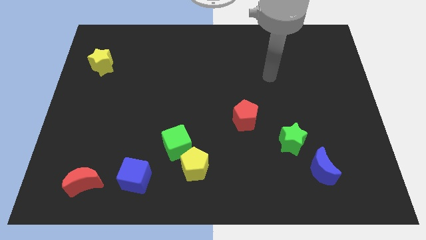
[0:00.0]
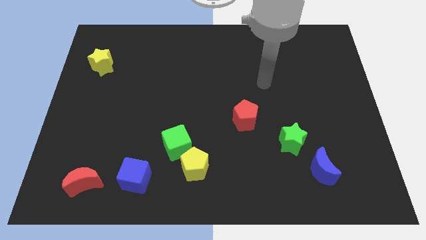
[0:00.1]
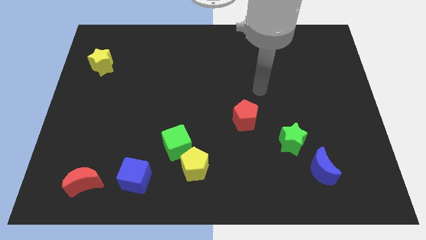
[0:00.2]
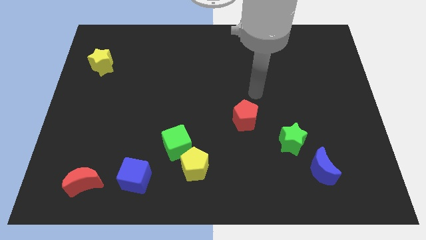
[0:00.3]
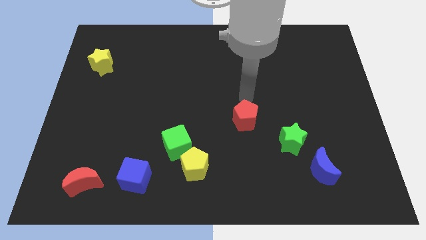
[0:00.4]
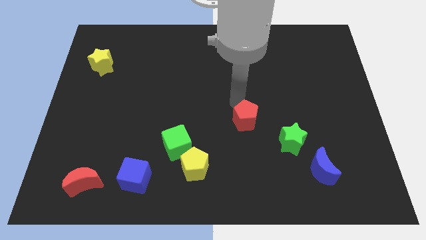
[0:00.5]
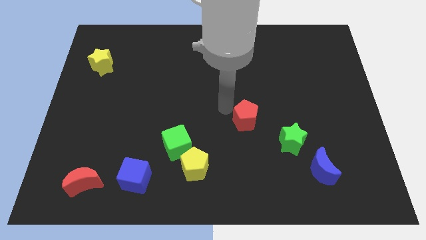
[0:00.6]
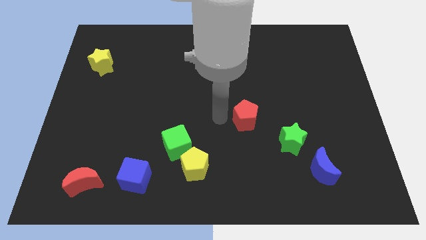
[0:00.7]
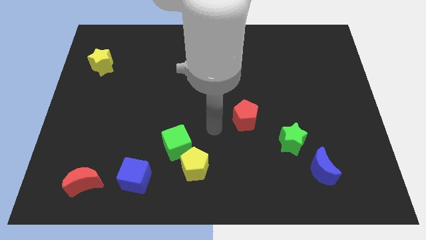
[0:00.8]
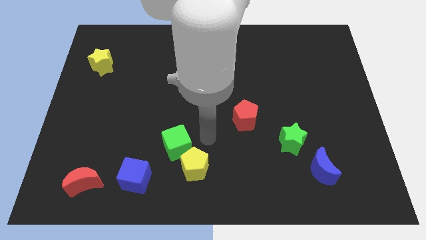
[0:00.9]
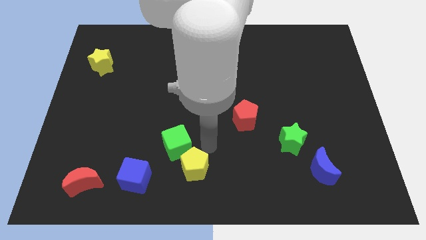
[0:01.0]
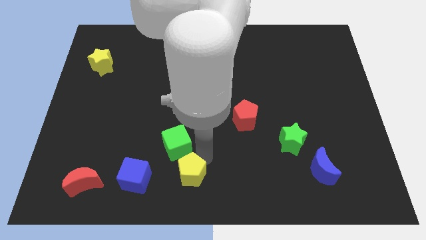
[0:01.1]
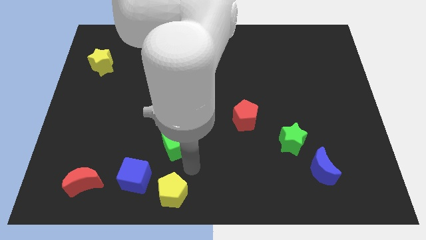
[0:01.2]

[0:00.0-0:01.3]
pull the green cube apart from the yellow pentagon

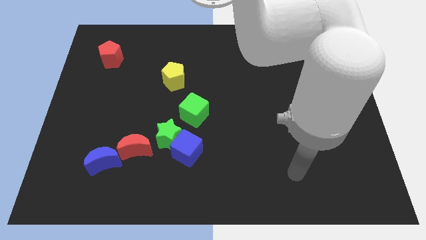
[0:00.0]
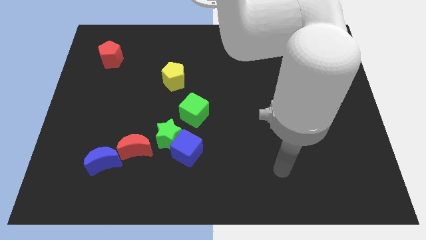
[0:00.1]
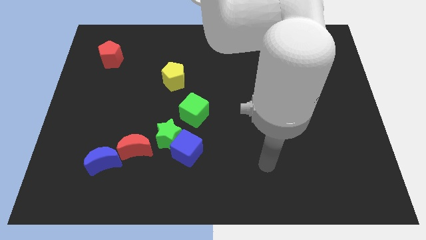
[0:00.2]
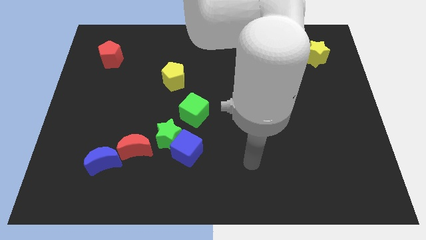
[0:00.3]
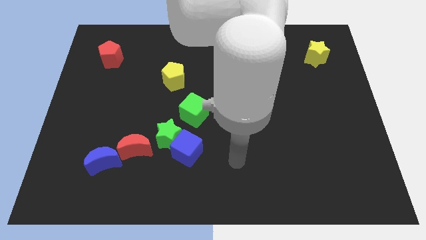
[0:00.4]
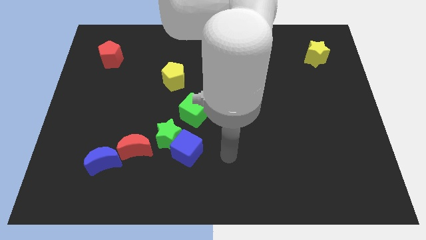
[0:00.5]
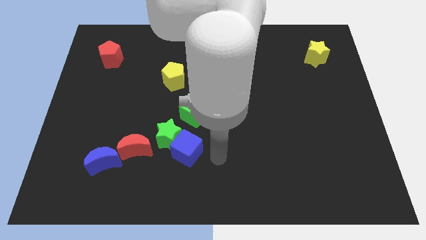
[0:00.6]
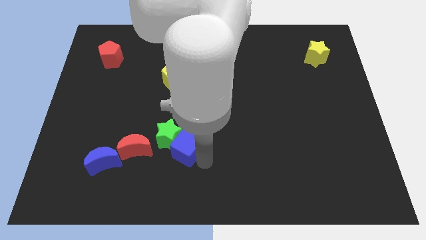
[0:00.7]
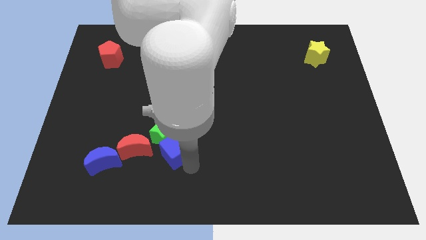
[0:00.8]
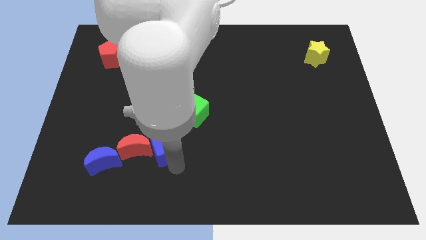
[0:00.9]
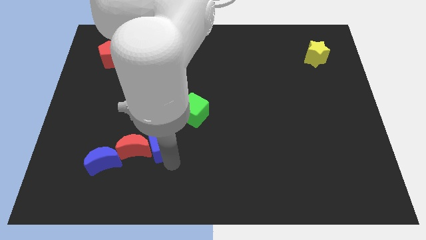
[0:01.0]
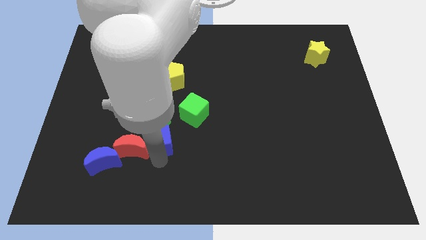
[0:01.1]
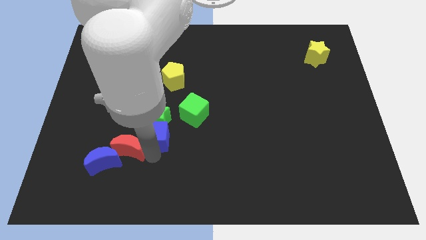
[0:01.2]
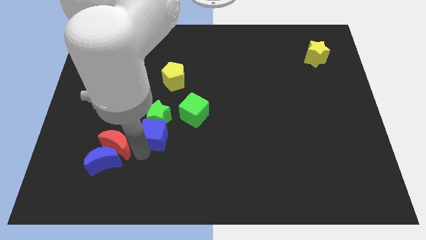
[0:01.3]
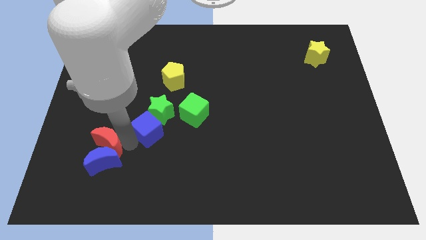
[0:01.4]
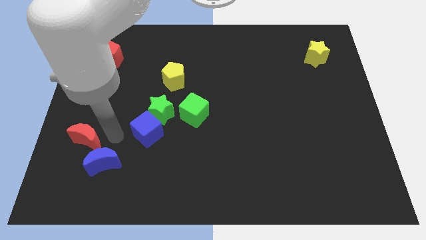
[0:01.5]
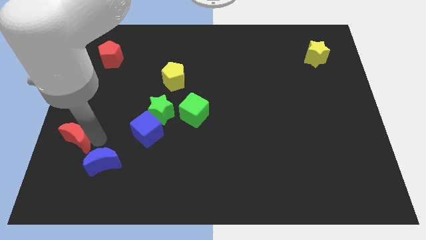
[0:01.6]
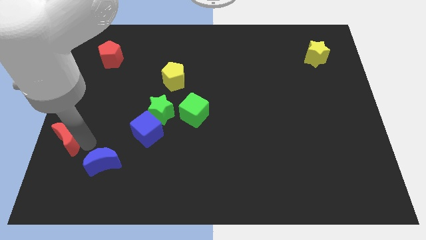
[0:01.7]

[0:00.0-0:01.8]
pull the blue moon apart from the red moon

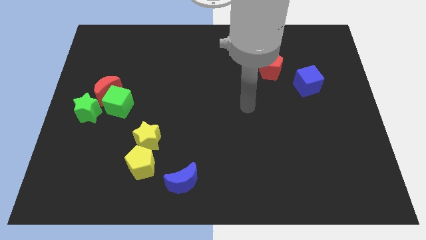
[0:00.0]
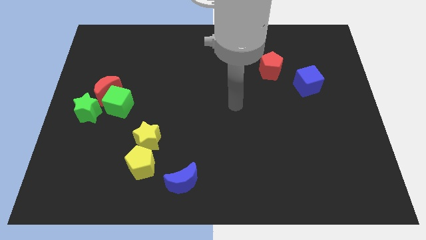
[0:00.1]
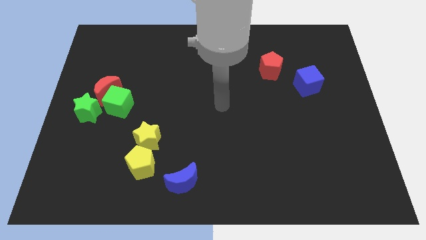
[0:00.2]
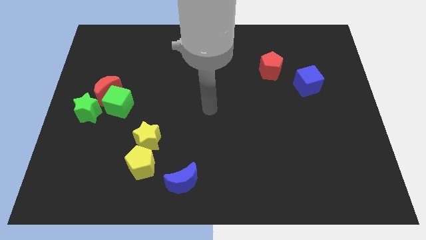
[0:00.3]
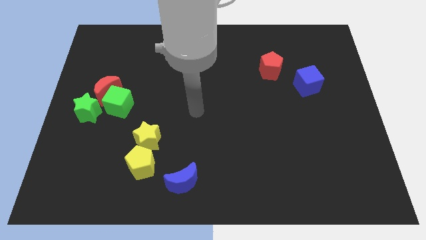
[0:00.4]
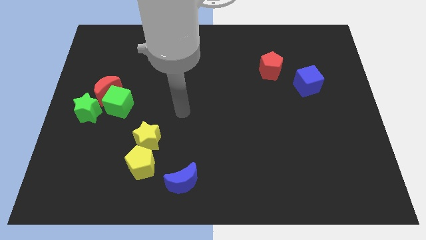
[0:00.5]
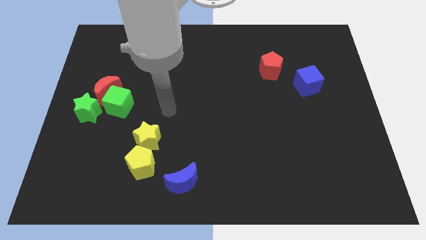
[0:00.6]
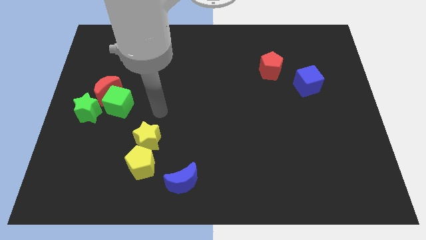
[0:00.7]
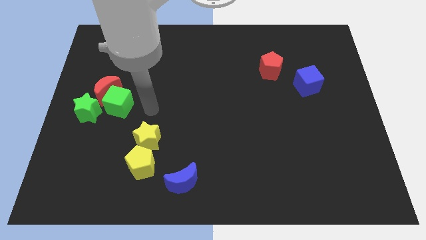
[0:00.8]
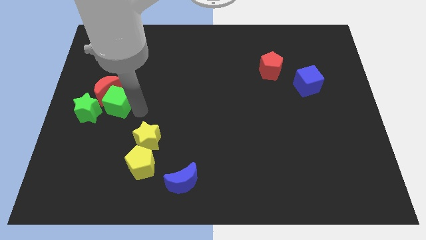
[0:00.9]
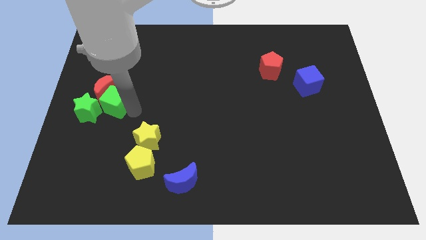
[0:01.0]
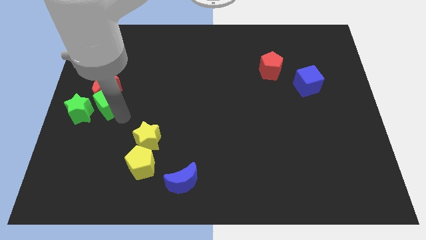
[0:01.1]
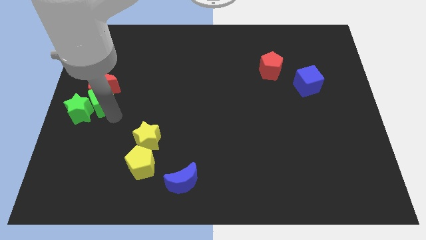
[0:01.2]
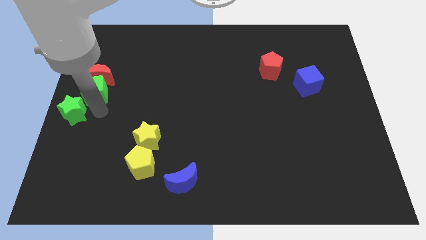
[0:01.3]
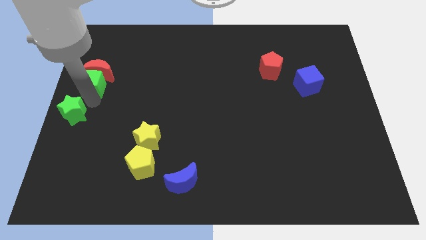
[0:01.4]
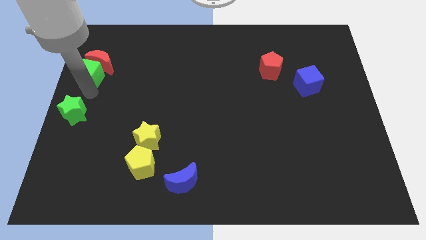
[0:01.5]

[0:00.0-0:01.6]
move the red moon away from the green cube and green star

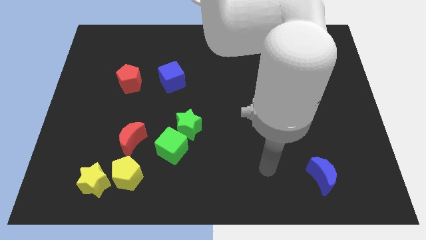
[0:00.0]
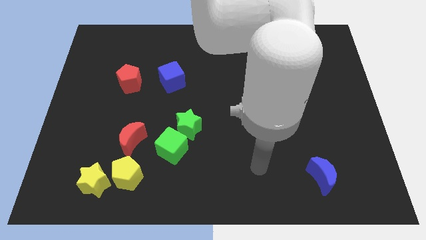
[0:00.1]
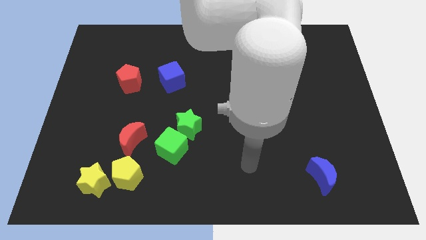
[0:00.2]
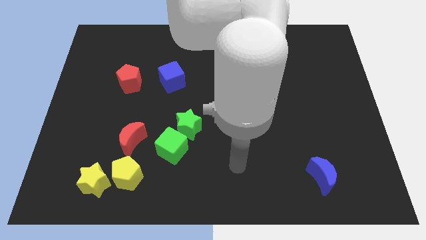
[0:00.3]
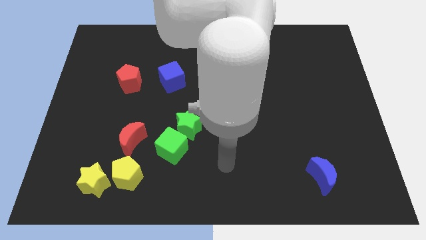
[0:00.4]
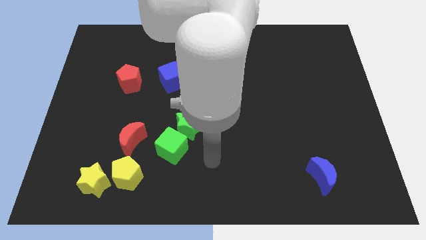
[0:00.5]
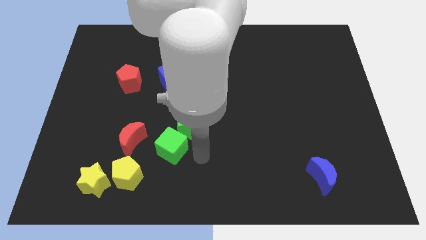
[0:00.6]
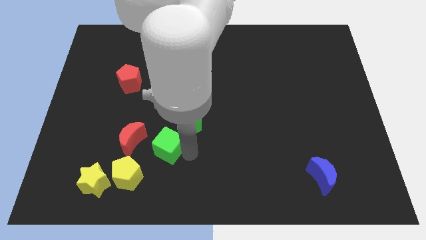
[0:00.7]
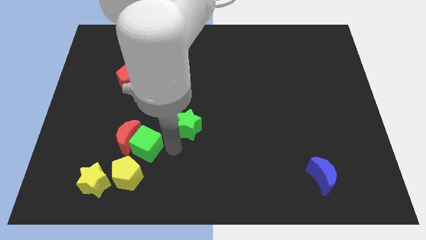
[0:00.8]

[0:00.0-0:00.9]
pull the green star apart from the green cube

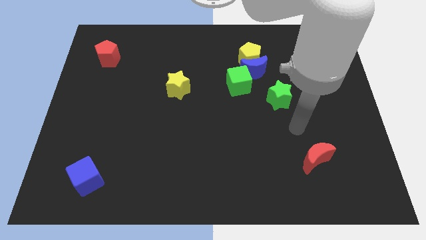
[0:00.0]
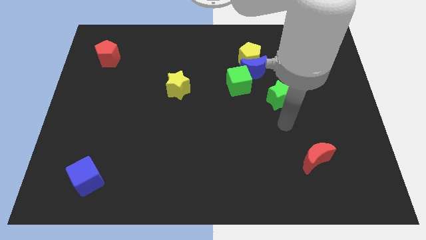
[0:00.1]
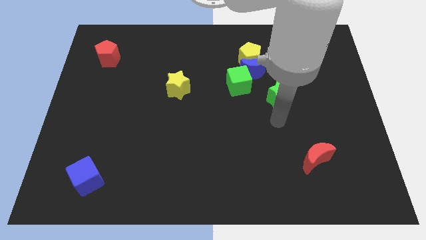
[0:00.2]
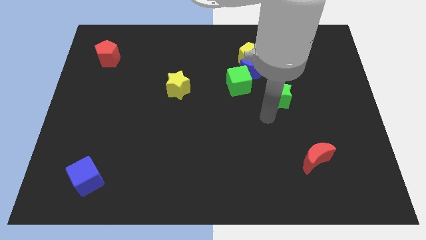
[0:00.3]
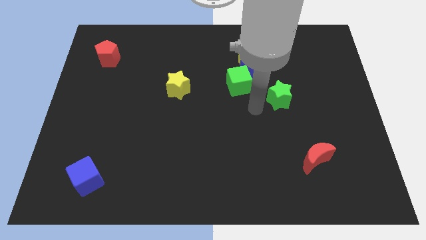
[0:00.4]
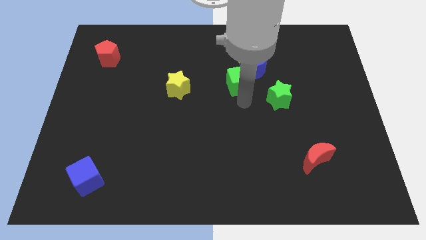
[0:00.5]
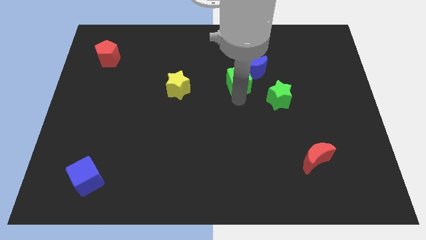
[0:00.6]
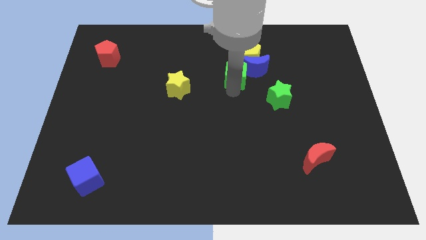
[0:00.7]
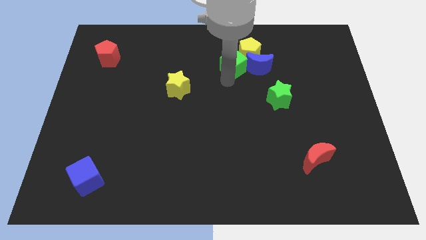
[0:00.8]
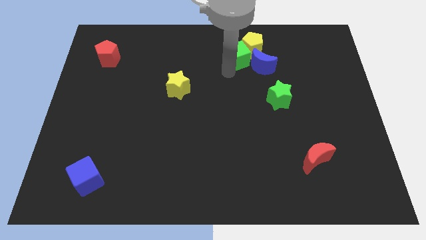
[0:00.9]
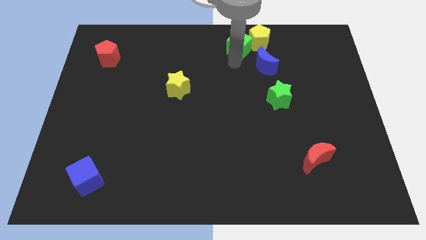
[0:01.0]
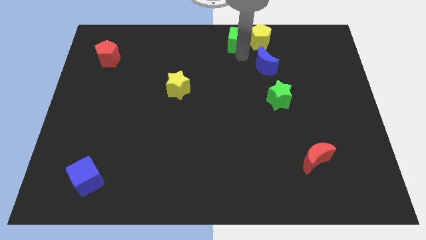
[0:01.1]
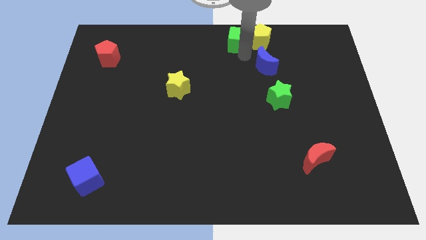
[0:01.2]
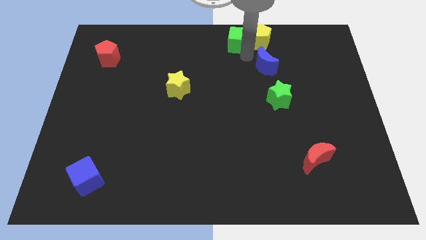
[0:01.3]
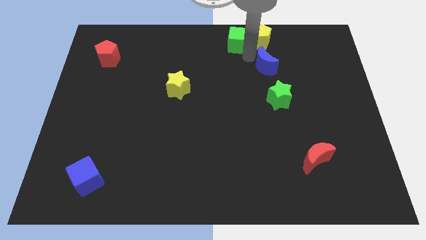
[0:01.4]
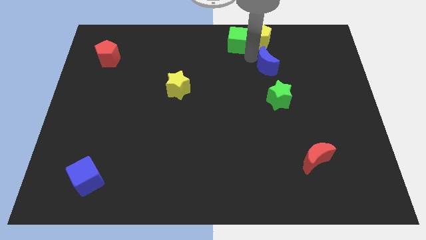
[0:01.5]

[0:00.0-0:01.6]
separate the blue moon from the yellow pentagon and green cube

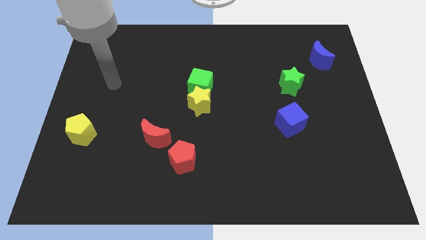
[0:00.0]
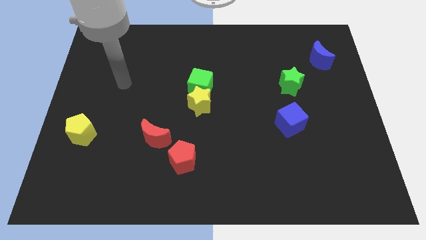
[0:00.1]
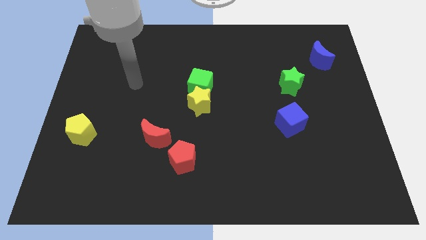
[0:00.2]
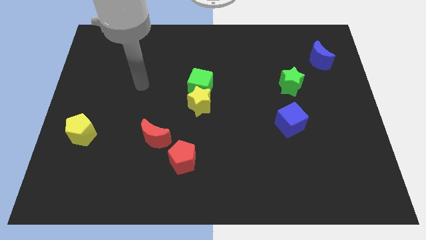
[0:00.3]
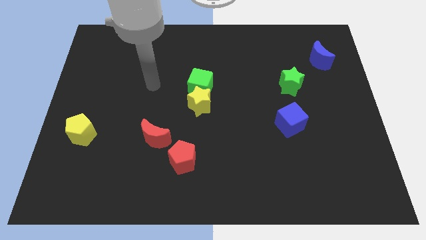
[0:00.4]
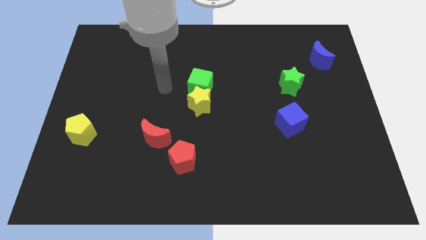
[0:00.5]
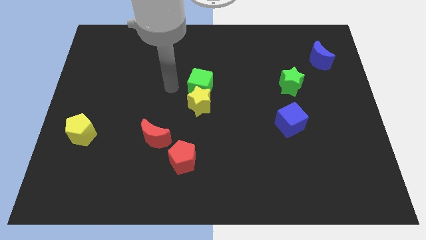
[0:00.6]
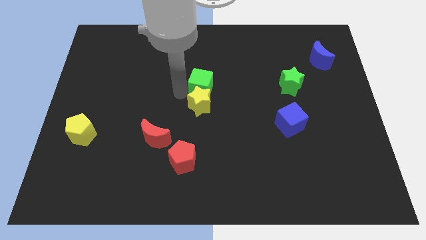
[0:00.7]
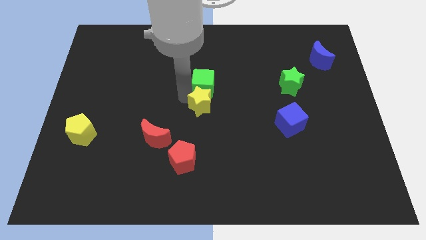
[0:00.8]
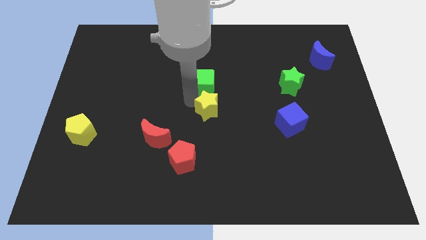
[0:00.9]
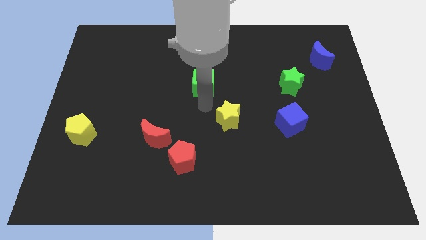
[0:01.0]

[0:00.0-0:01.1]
separate the green cube from the yellow star

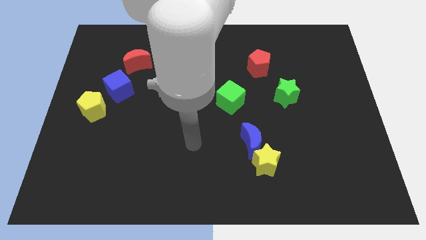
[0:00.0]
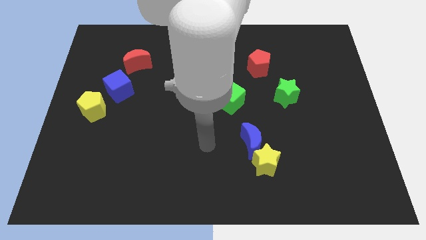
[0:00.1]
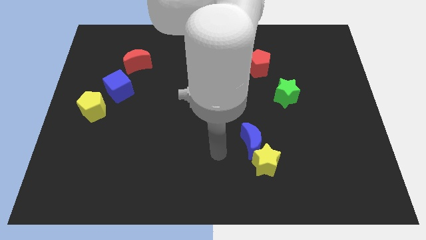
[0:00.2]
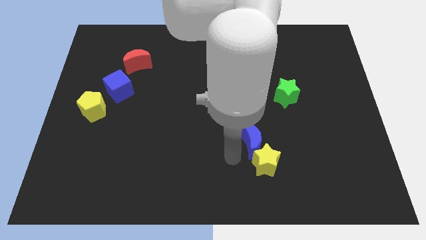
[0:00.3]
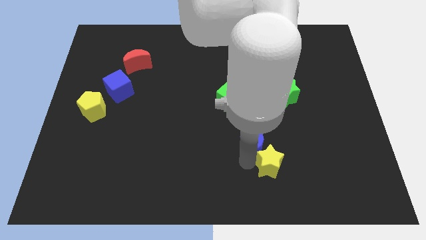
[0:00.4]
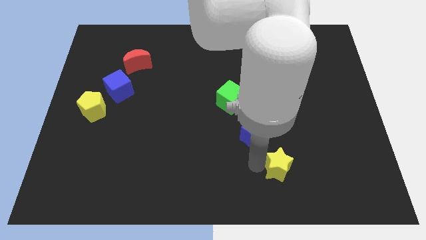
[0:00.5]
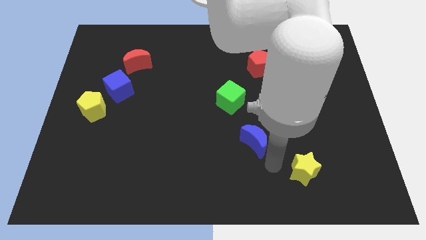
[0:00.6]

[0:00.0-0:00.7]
move the blue moon away from the yellow star

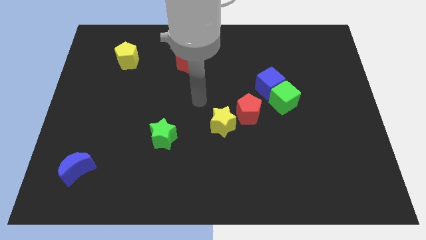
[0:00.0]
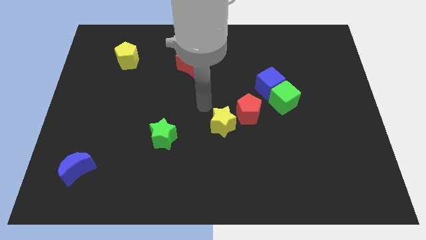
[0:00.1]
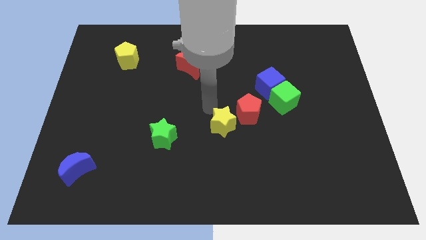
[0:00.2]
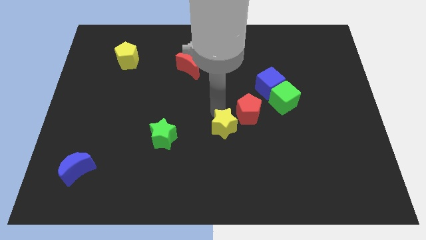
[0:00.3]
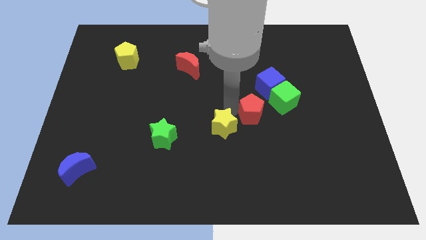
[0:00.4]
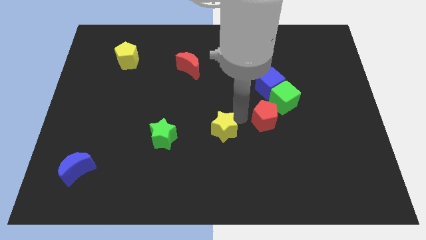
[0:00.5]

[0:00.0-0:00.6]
move the yellow star away from the red pentagon
